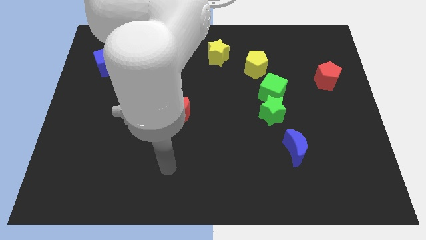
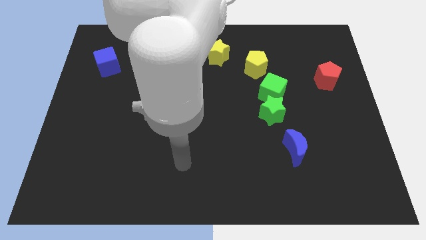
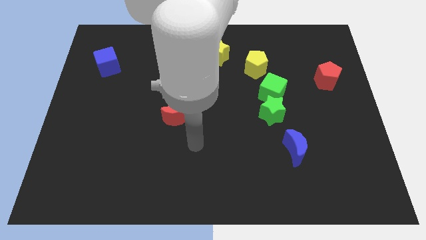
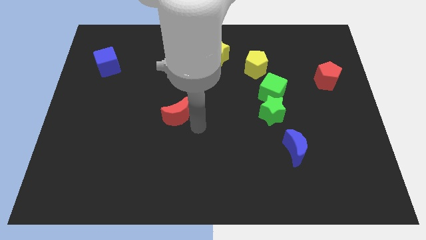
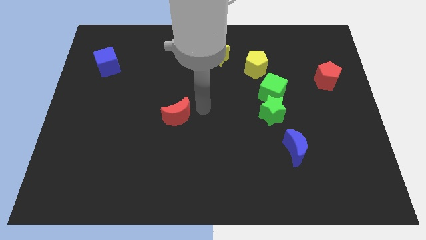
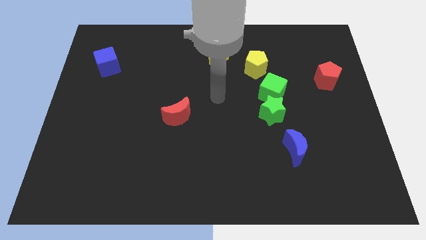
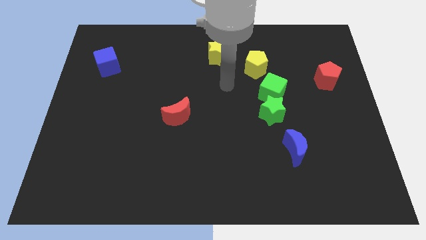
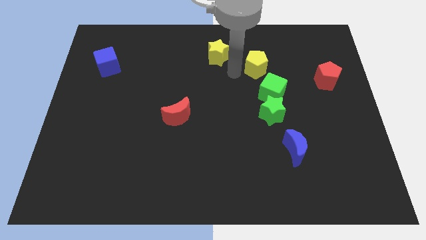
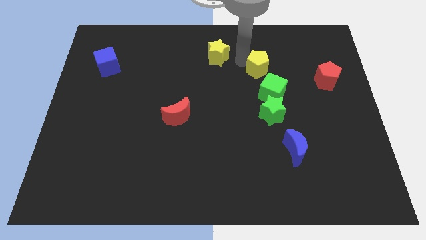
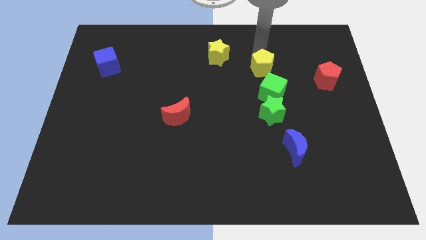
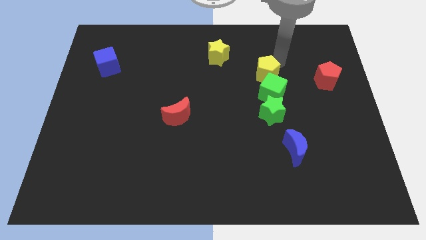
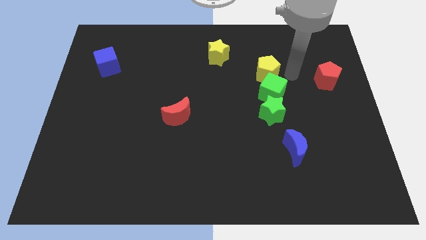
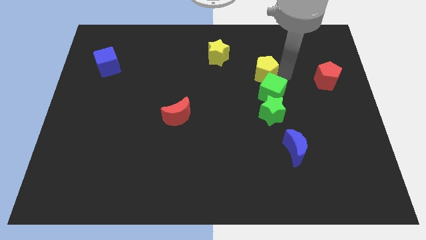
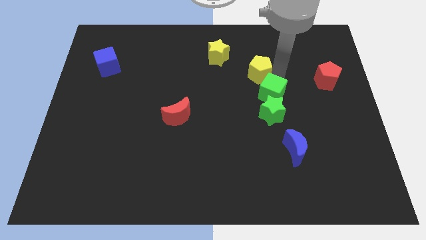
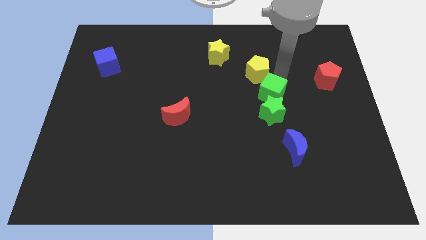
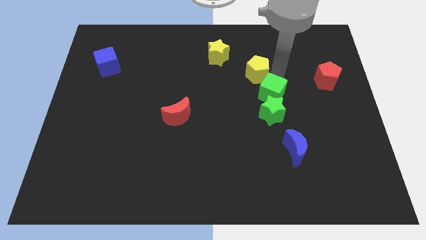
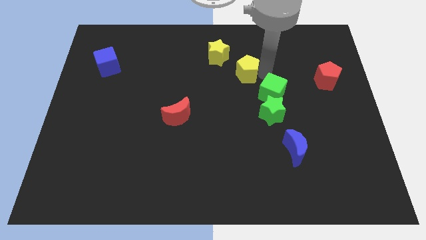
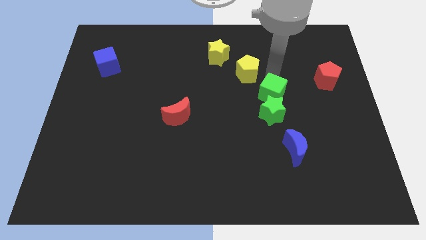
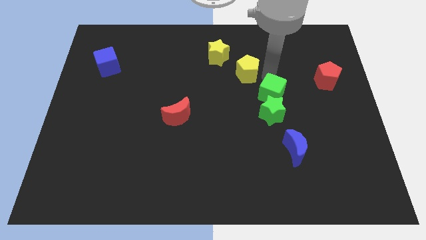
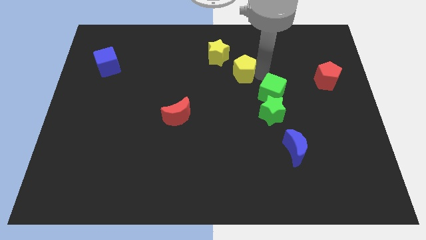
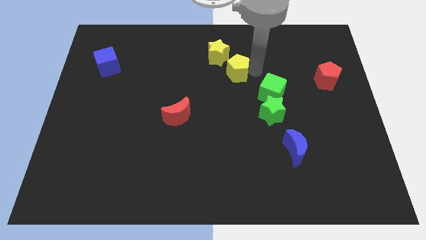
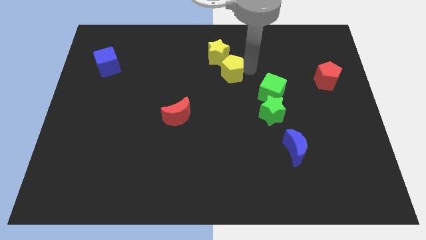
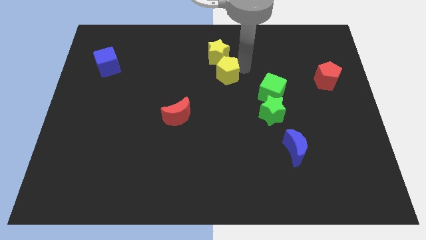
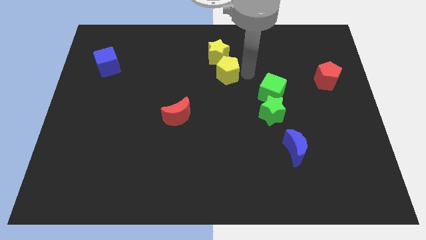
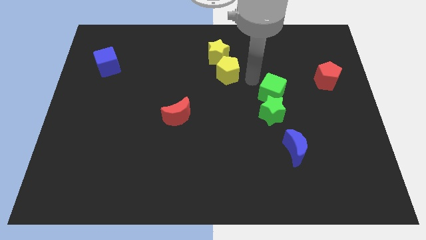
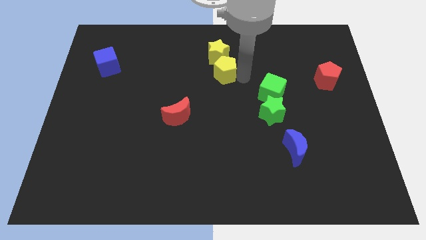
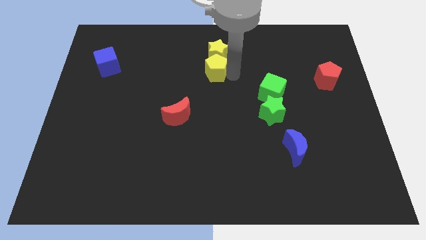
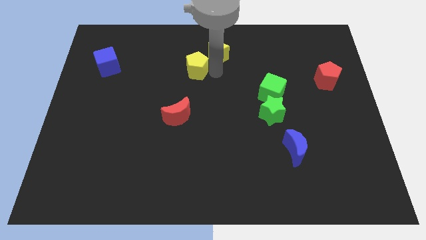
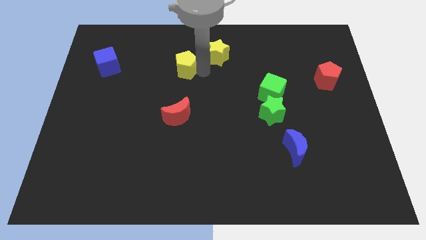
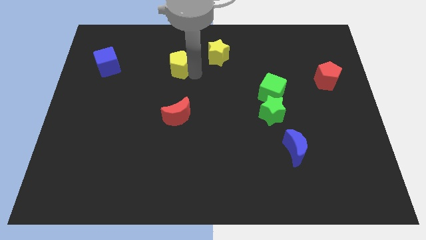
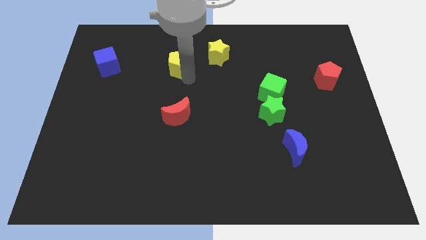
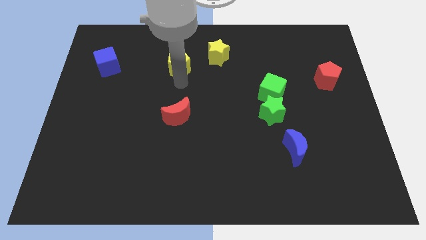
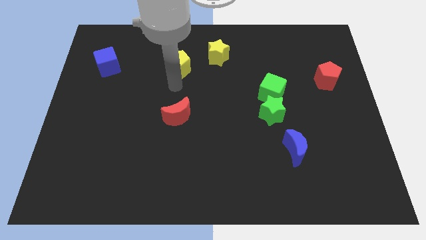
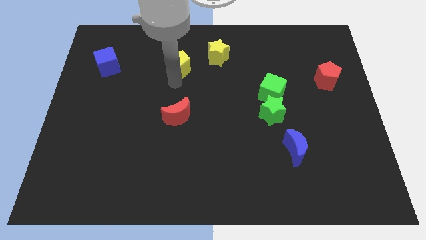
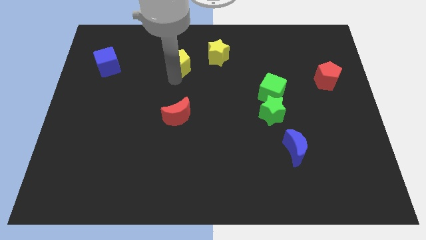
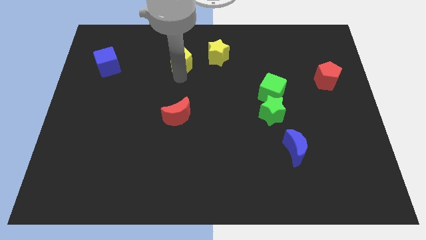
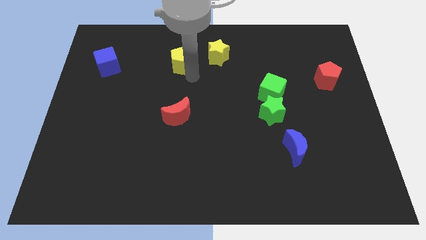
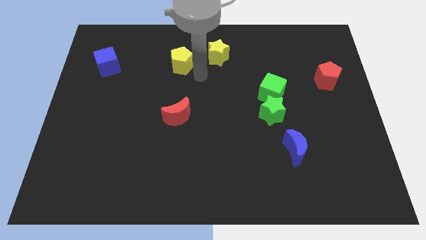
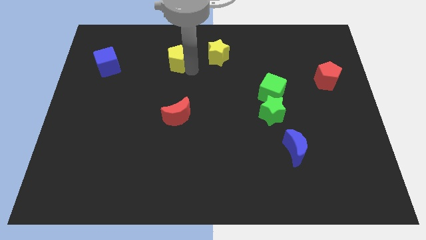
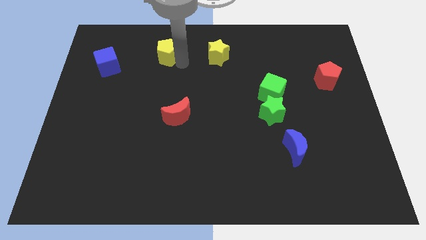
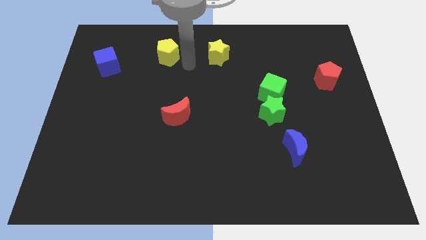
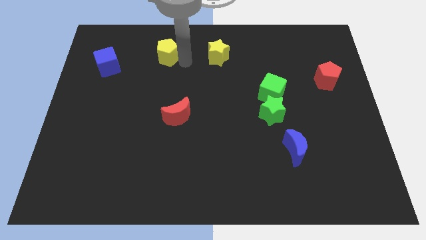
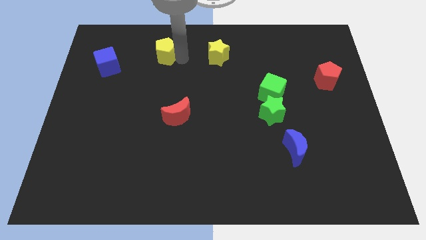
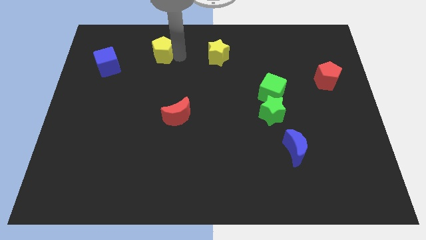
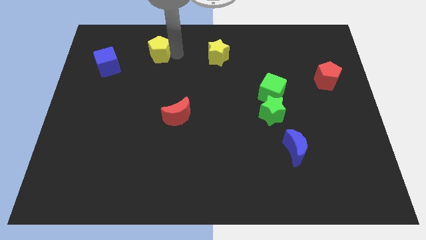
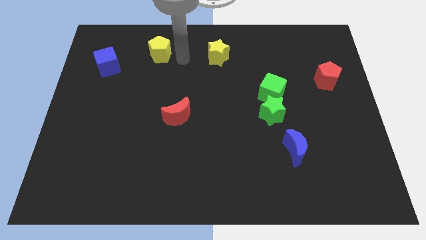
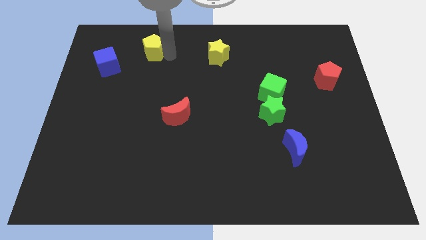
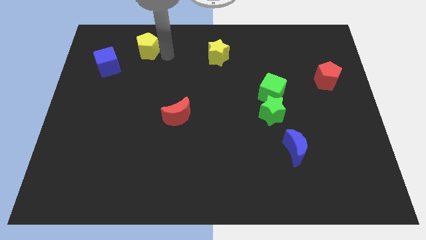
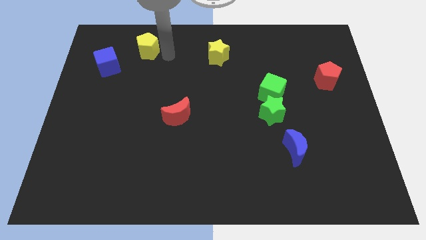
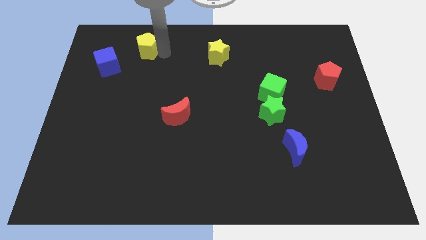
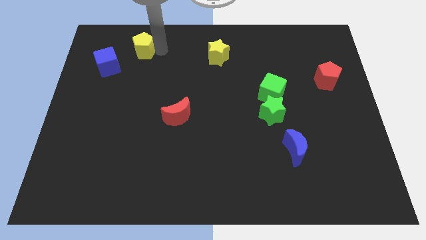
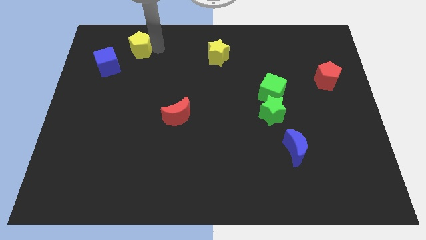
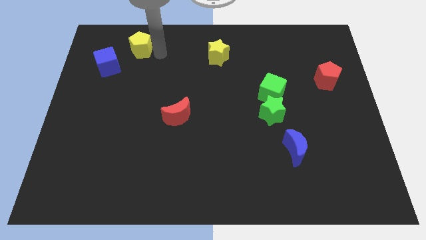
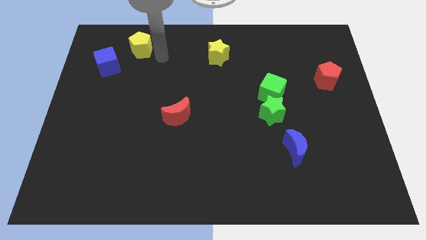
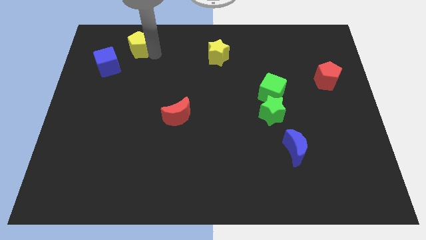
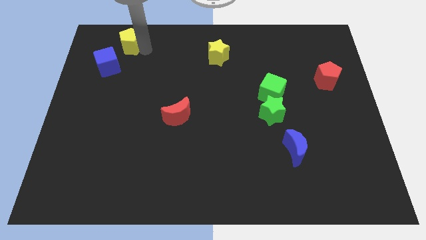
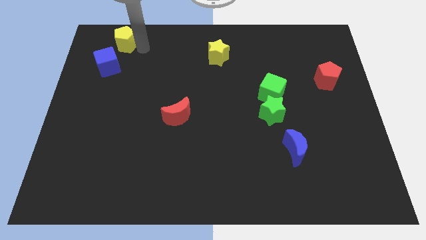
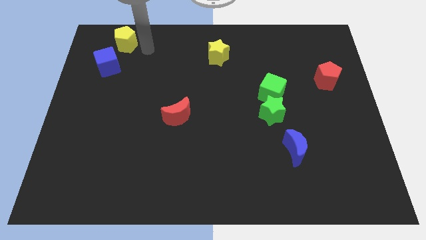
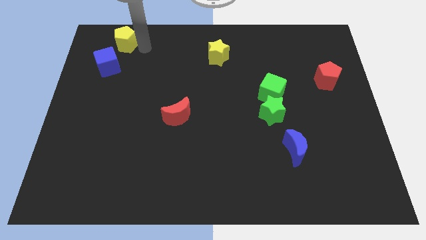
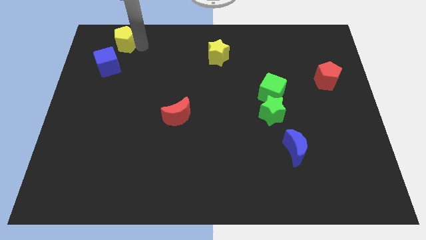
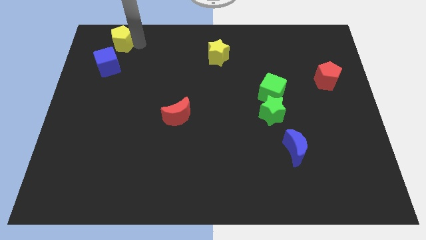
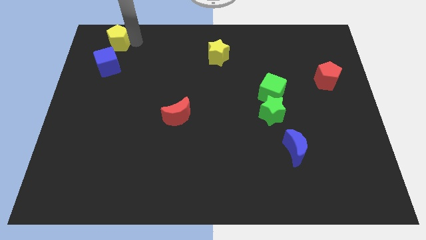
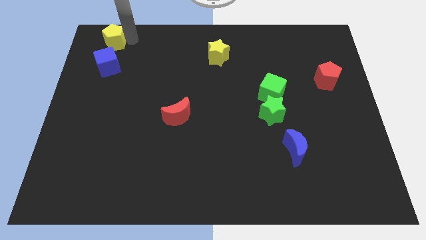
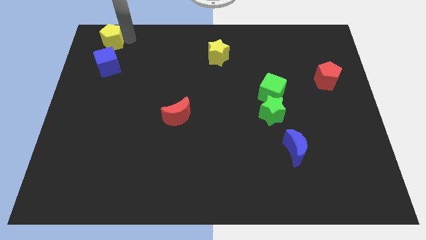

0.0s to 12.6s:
slide the yellow pentagon to the top left

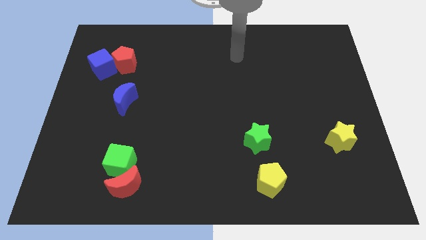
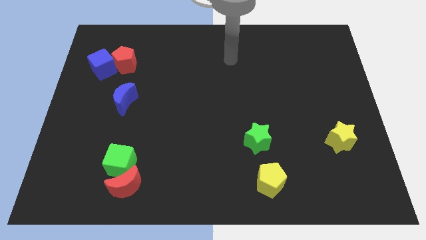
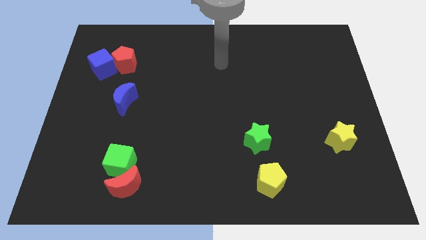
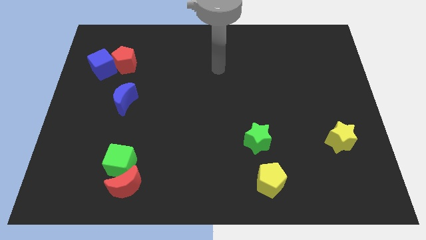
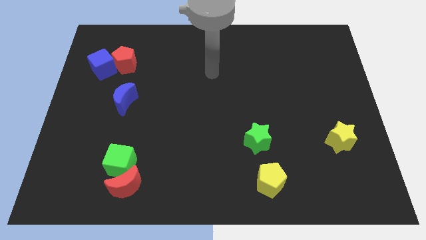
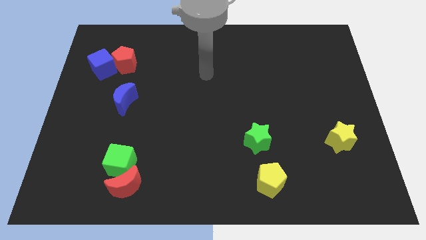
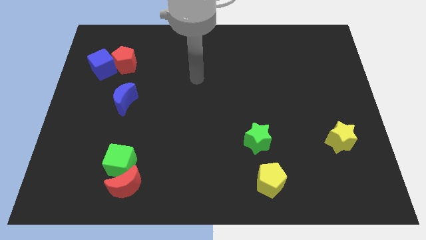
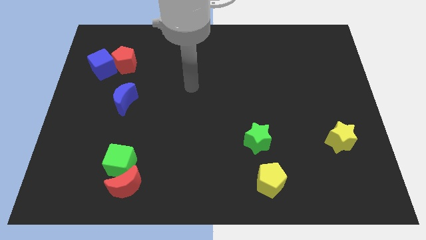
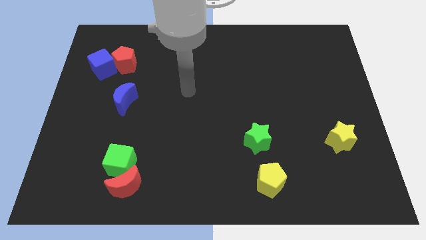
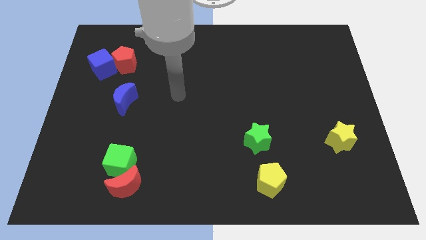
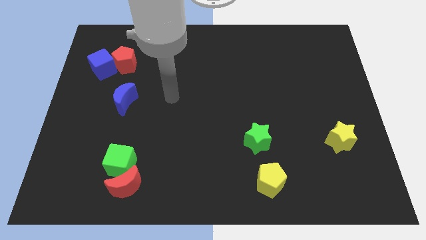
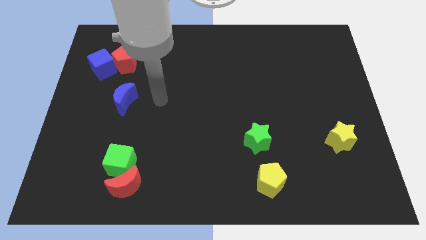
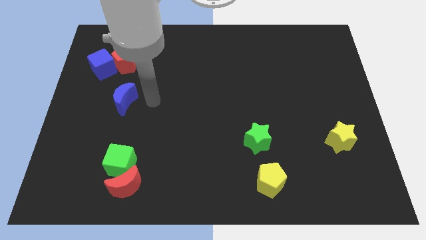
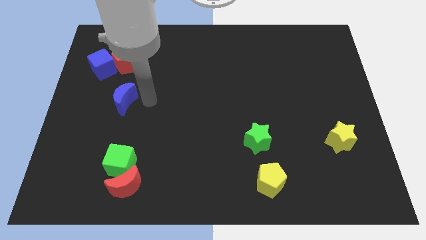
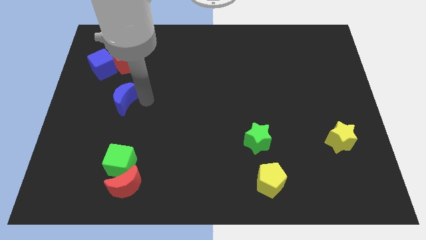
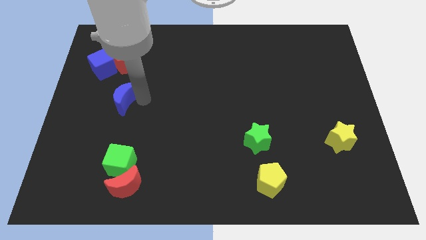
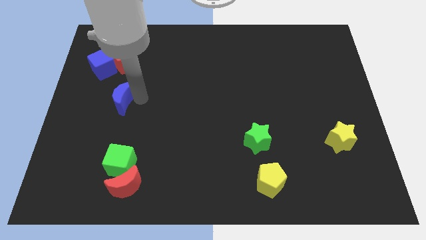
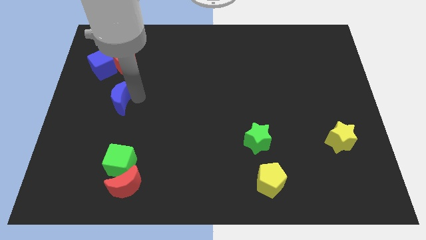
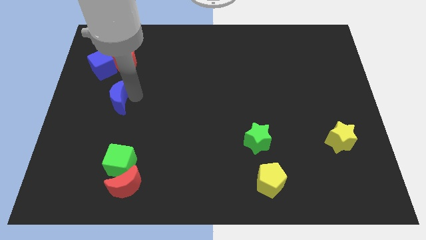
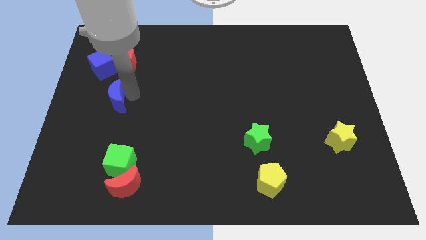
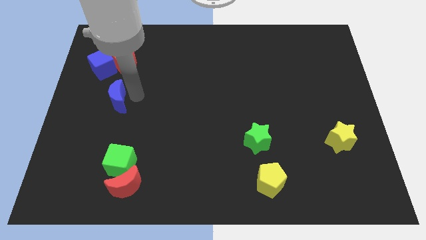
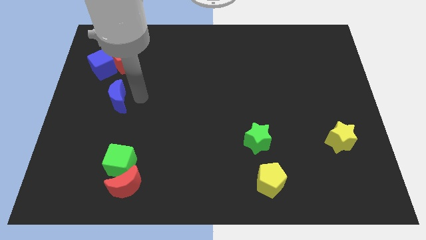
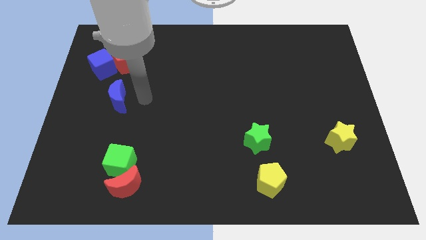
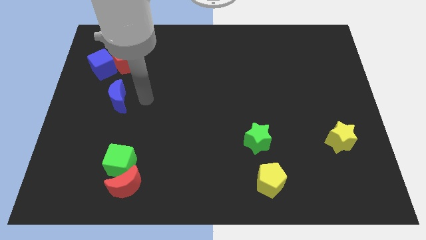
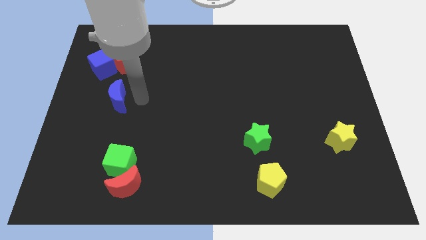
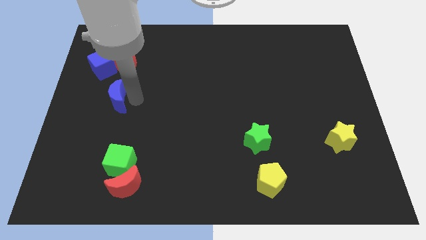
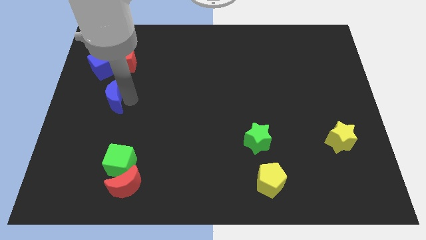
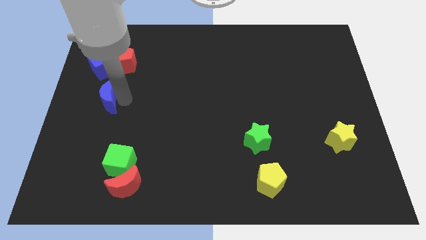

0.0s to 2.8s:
put the blue moon to the left side
